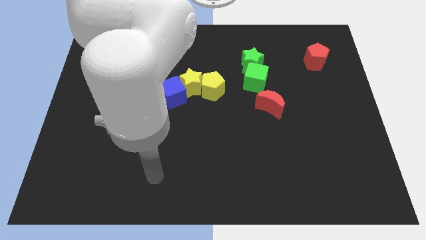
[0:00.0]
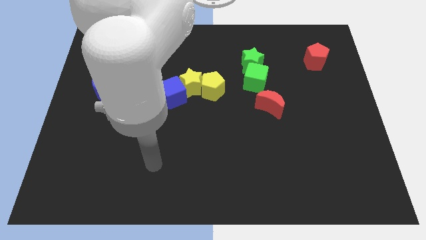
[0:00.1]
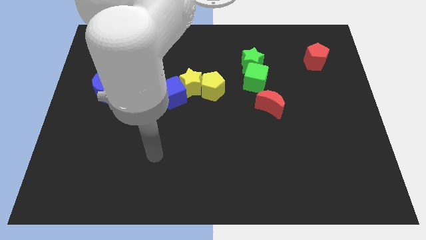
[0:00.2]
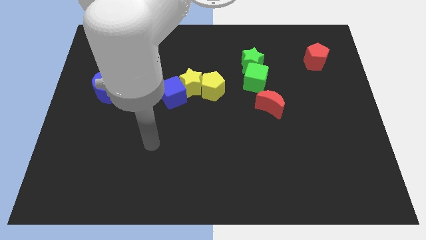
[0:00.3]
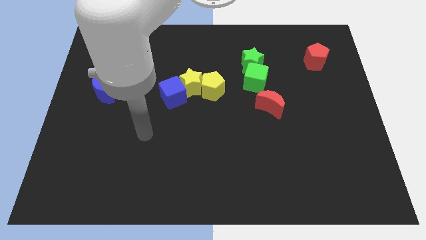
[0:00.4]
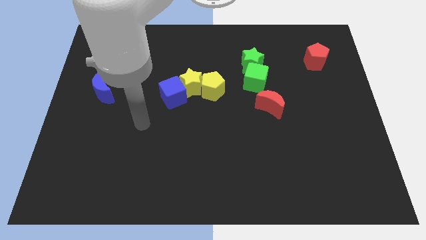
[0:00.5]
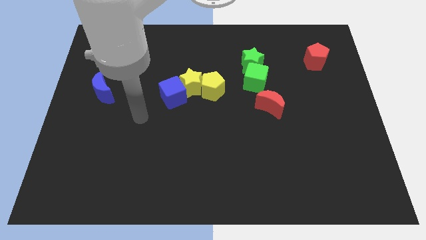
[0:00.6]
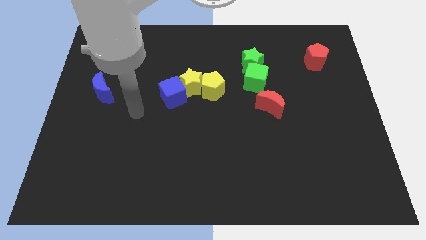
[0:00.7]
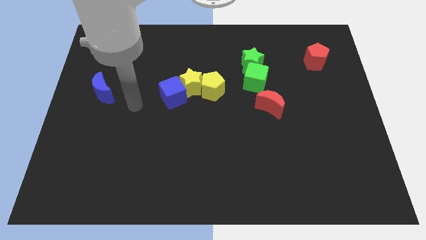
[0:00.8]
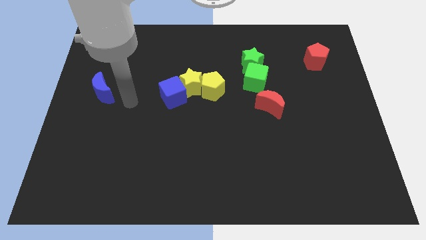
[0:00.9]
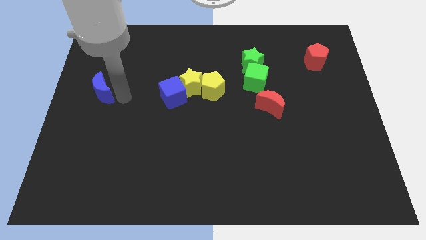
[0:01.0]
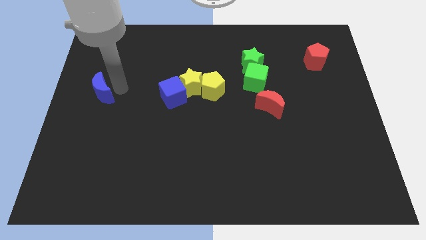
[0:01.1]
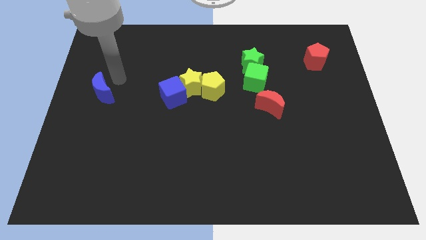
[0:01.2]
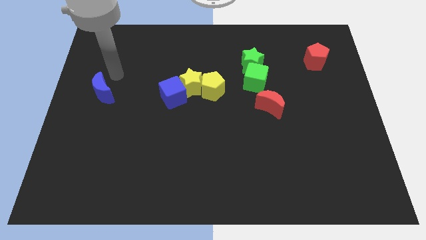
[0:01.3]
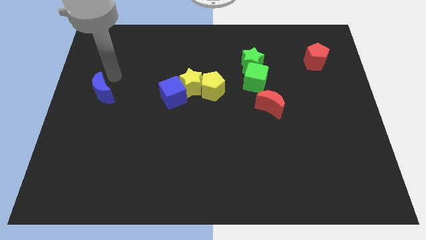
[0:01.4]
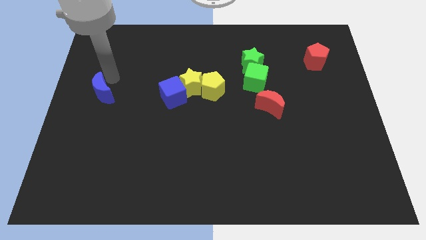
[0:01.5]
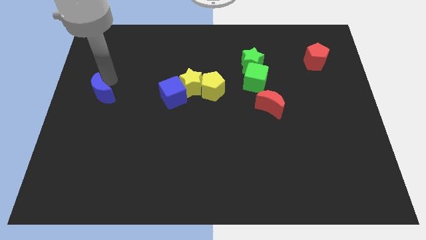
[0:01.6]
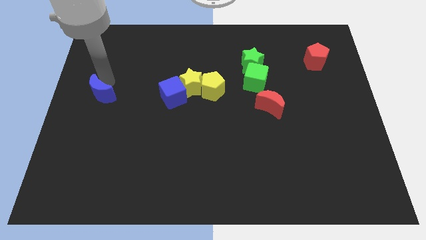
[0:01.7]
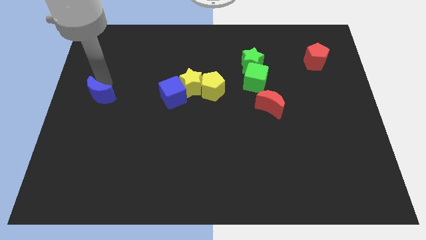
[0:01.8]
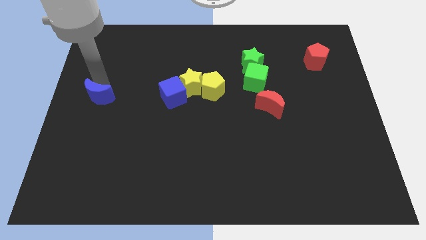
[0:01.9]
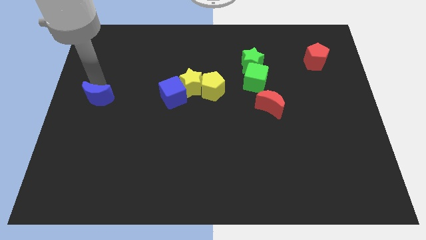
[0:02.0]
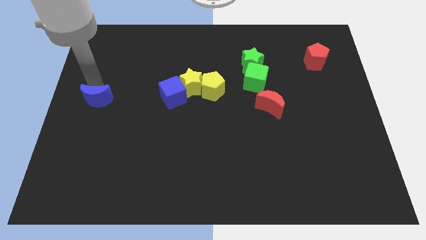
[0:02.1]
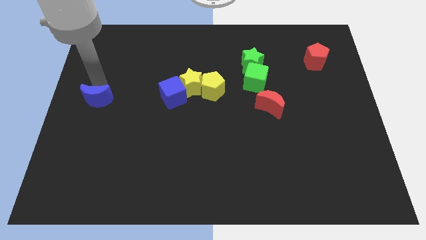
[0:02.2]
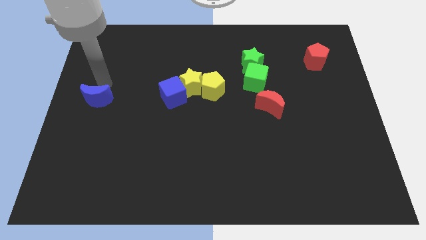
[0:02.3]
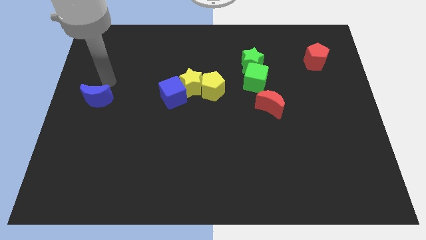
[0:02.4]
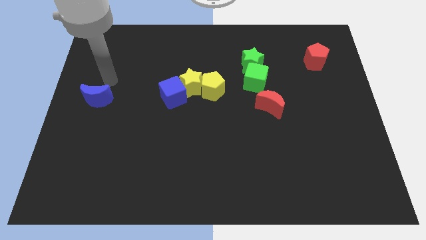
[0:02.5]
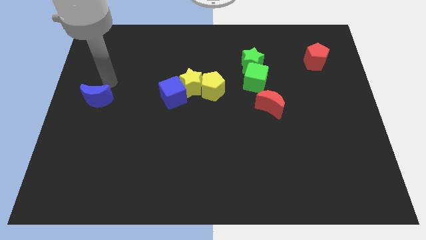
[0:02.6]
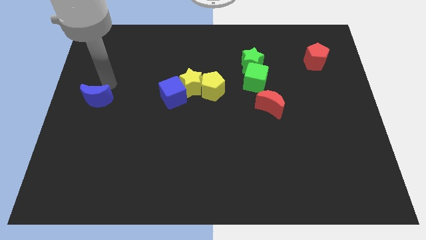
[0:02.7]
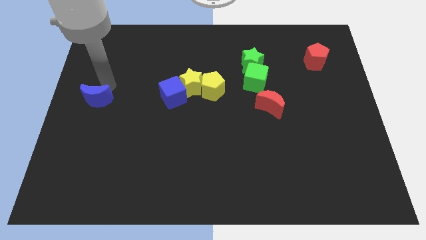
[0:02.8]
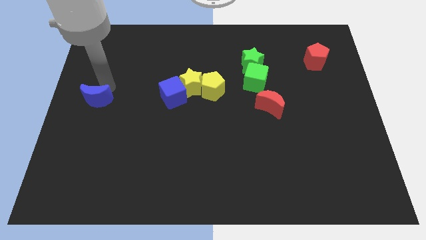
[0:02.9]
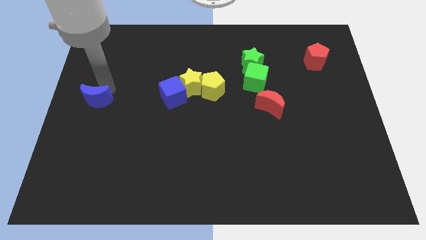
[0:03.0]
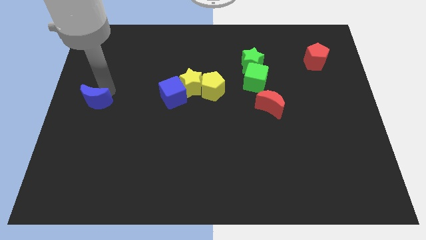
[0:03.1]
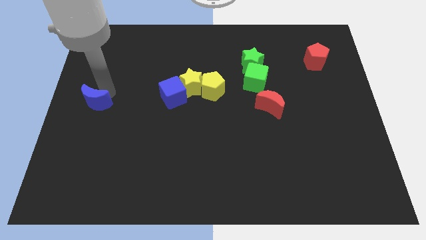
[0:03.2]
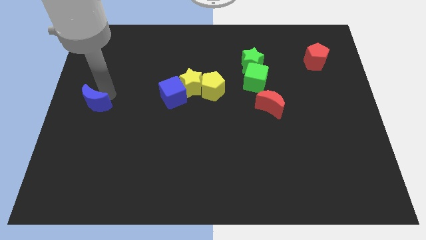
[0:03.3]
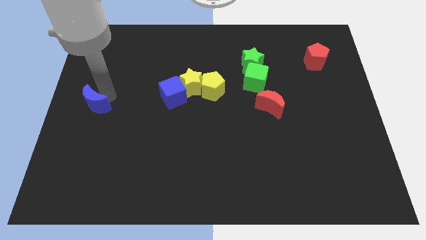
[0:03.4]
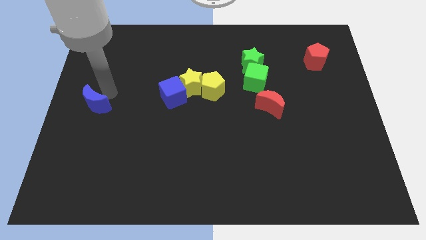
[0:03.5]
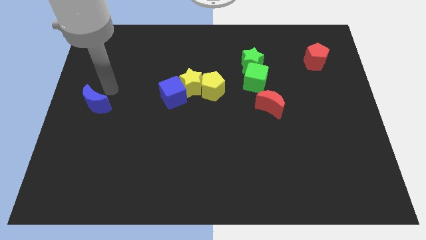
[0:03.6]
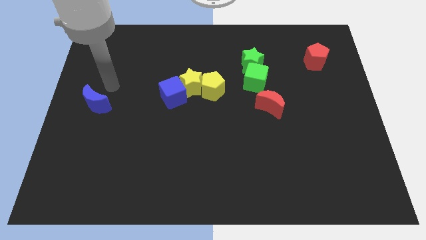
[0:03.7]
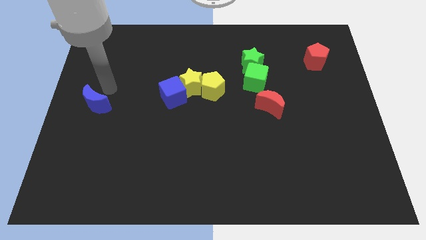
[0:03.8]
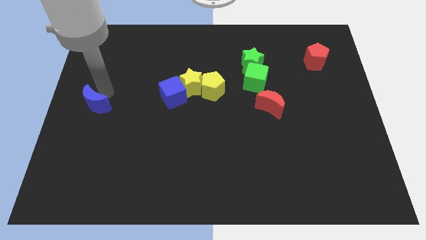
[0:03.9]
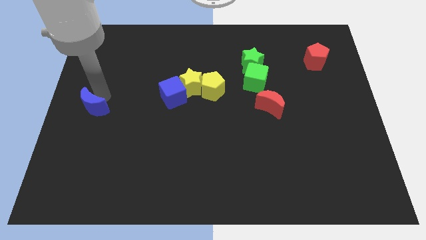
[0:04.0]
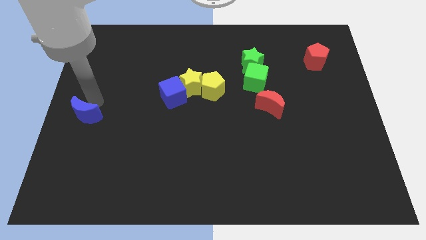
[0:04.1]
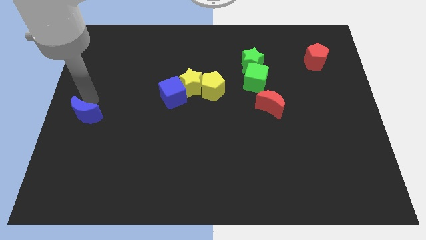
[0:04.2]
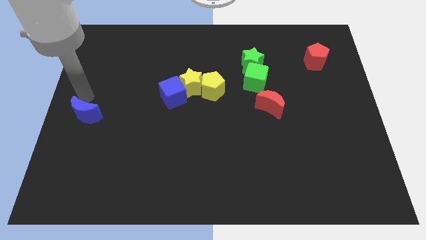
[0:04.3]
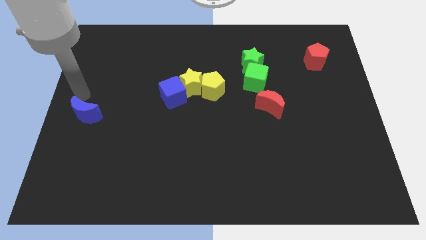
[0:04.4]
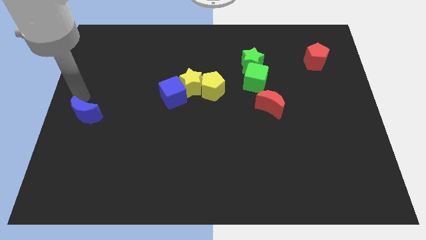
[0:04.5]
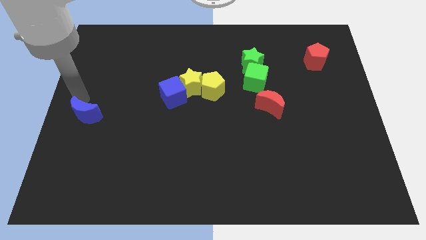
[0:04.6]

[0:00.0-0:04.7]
slightly move the blue moon downwards

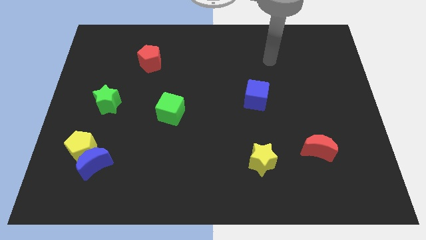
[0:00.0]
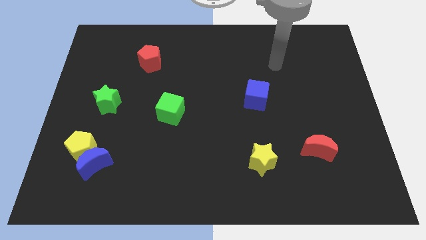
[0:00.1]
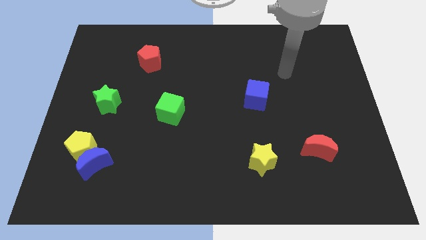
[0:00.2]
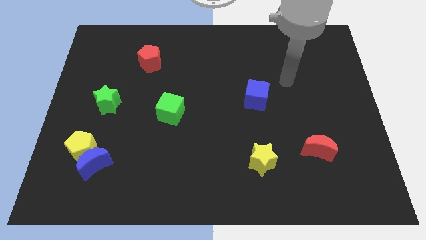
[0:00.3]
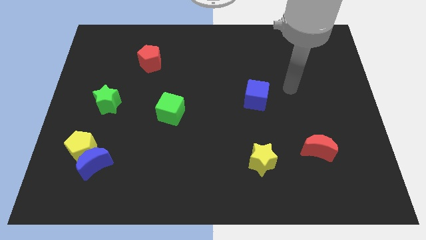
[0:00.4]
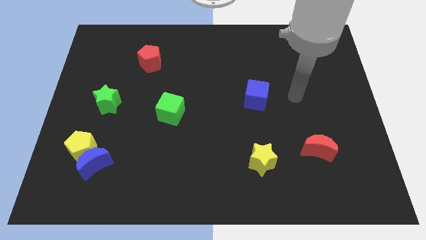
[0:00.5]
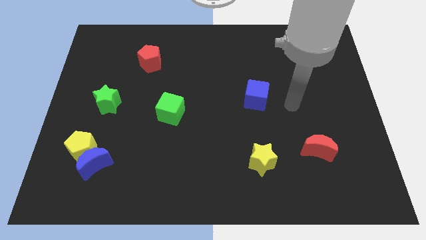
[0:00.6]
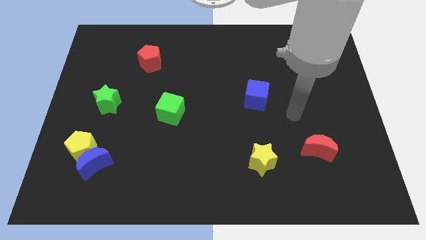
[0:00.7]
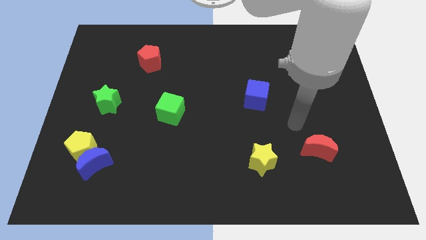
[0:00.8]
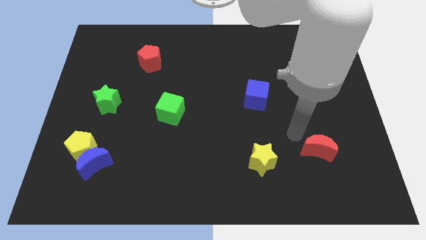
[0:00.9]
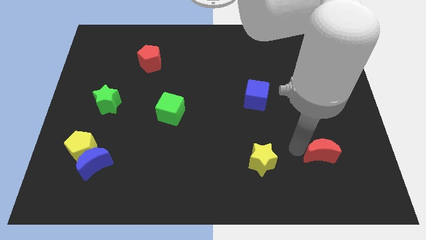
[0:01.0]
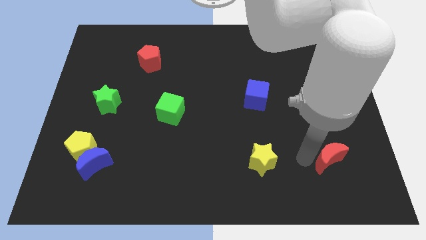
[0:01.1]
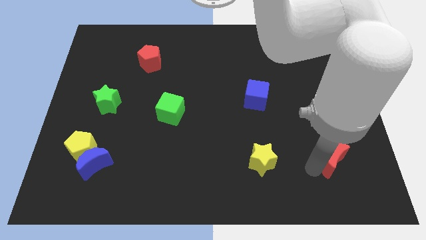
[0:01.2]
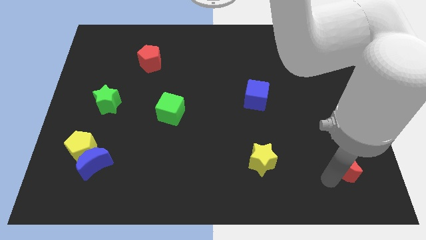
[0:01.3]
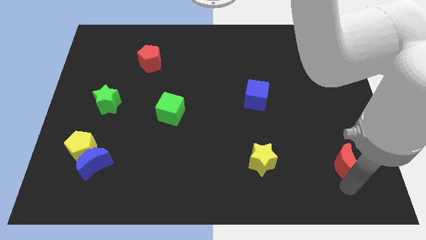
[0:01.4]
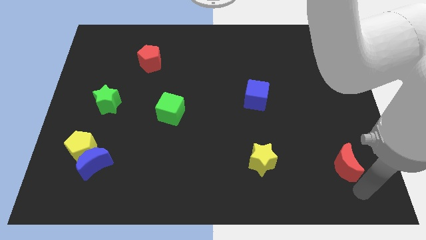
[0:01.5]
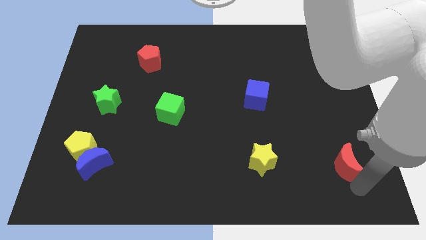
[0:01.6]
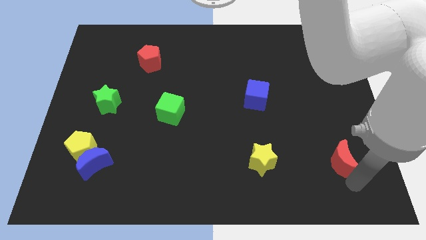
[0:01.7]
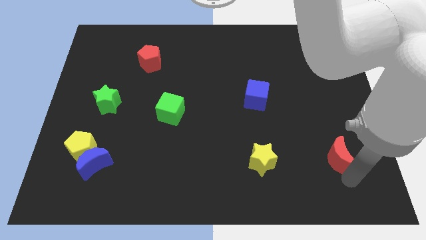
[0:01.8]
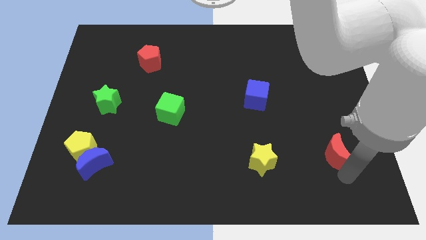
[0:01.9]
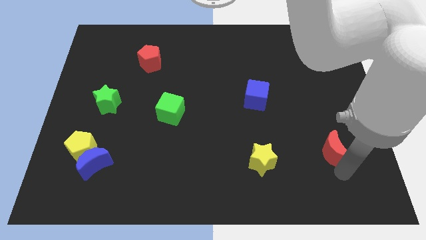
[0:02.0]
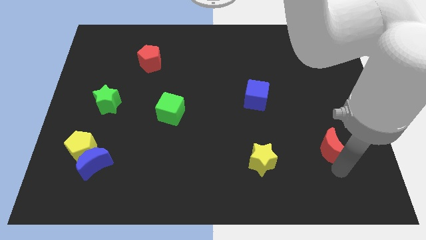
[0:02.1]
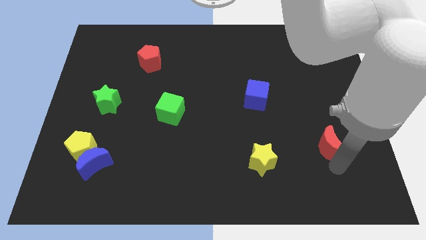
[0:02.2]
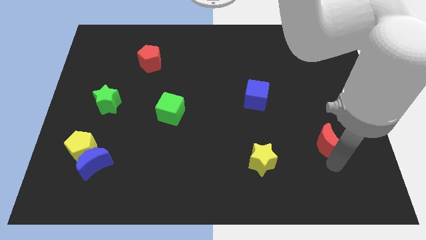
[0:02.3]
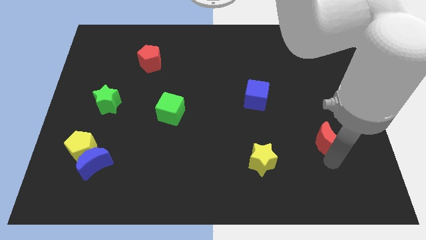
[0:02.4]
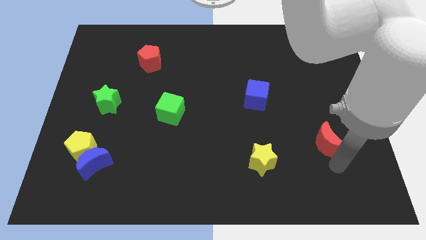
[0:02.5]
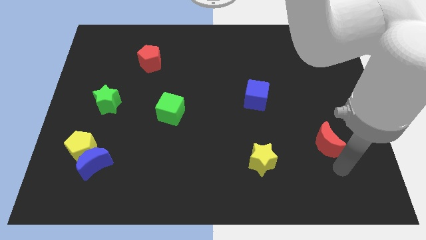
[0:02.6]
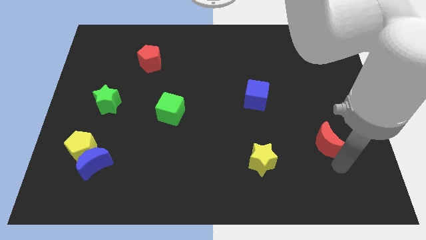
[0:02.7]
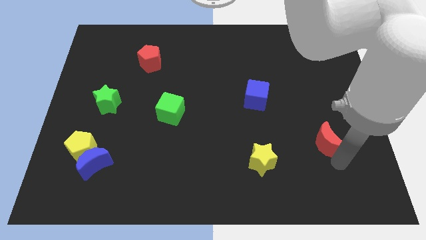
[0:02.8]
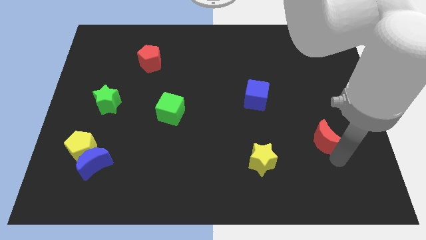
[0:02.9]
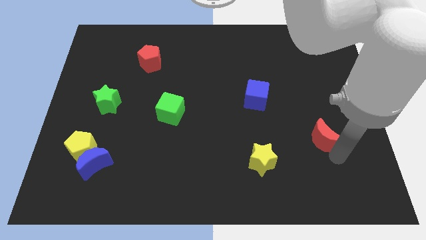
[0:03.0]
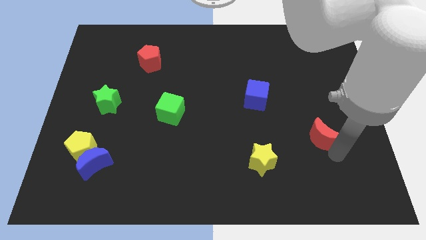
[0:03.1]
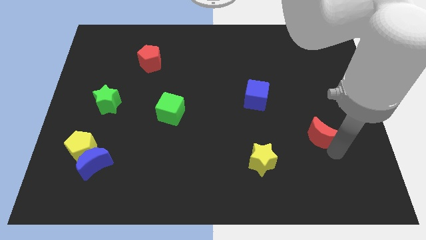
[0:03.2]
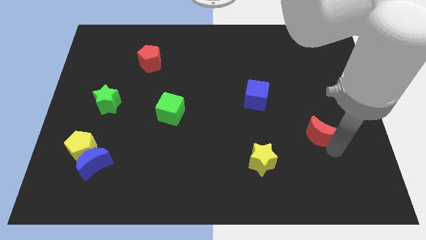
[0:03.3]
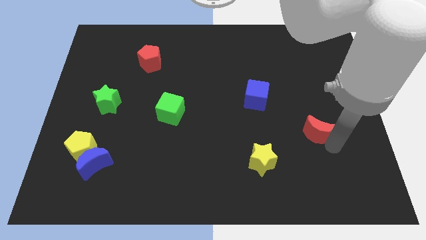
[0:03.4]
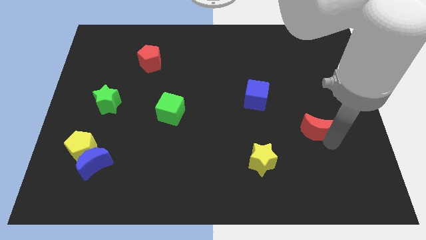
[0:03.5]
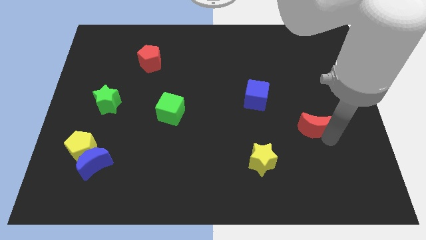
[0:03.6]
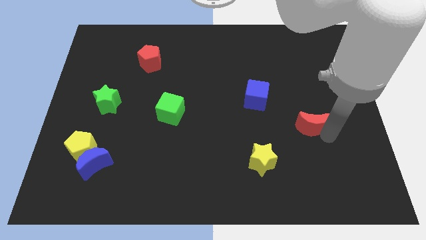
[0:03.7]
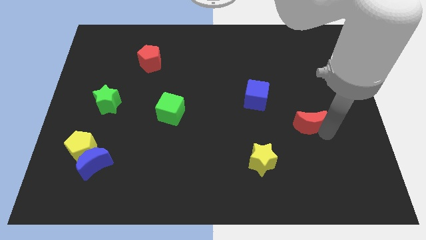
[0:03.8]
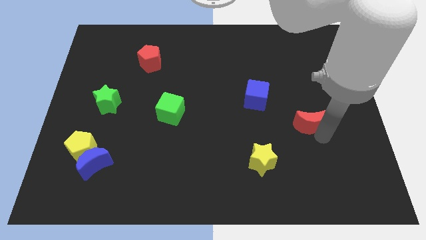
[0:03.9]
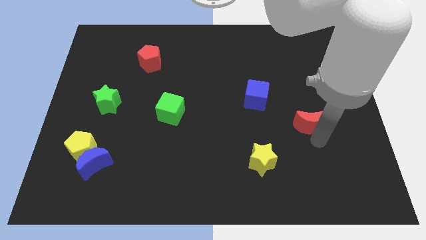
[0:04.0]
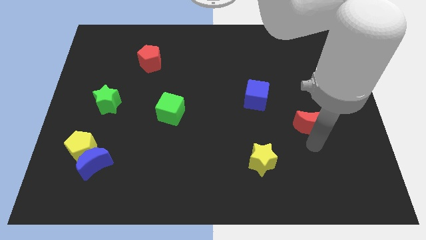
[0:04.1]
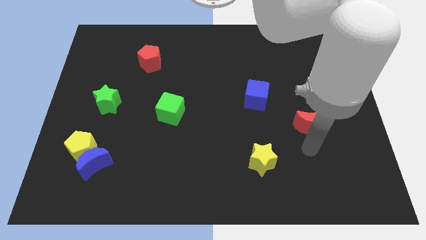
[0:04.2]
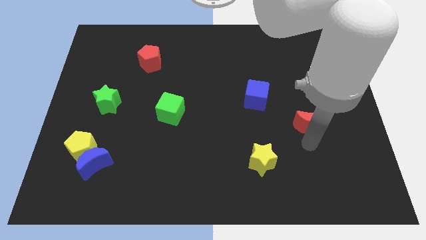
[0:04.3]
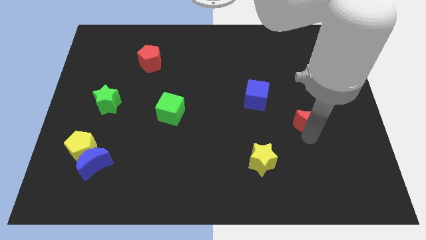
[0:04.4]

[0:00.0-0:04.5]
slightly slide the red moon upwards
